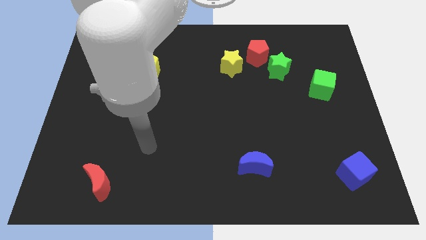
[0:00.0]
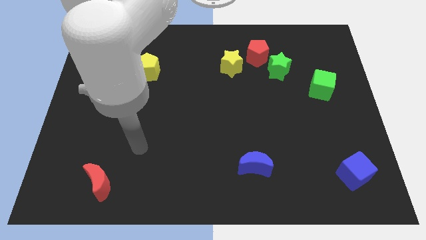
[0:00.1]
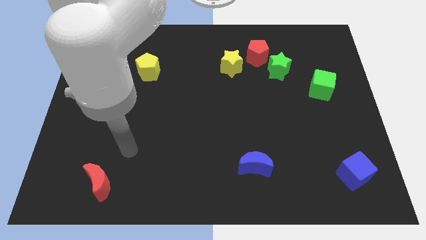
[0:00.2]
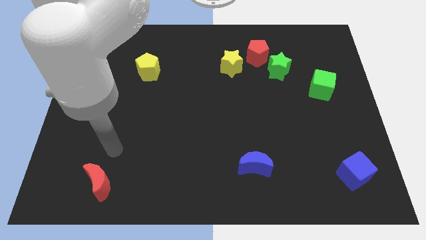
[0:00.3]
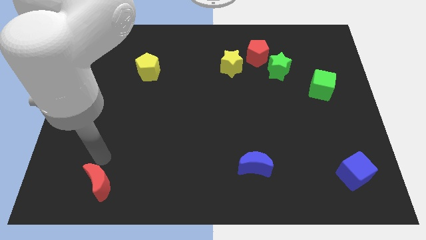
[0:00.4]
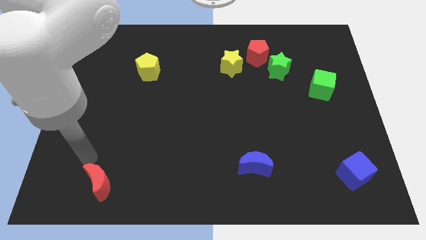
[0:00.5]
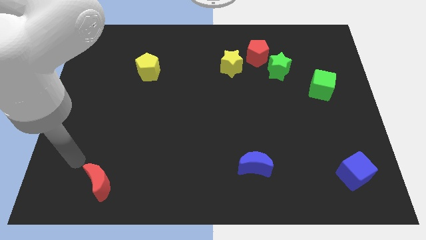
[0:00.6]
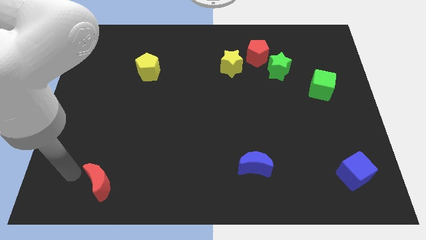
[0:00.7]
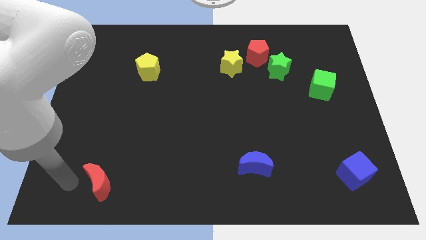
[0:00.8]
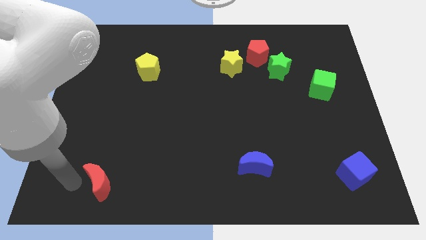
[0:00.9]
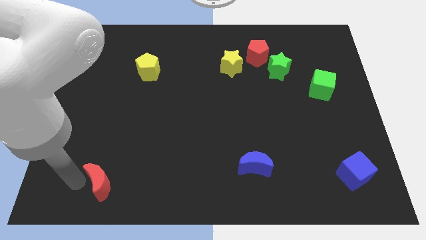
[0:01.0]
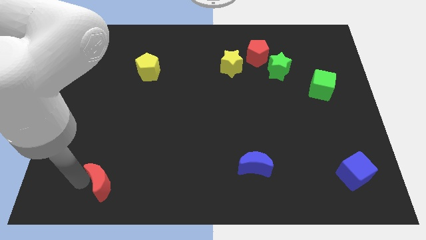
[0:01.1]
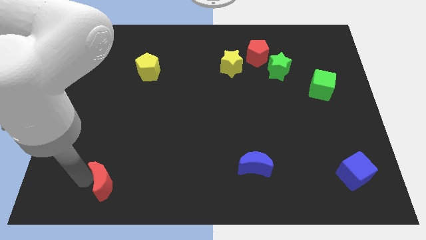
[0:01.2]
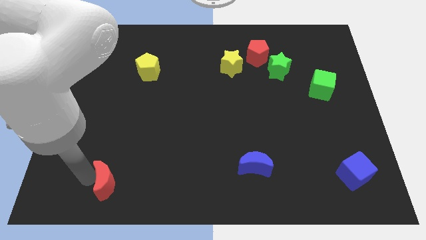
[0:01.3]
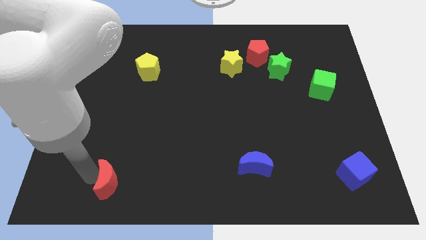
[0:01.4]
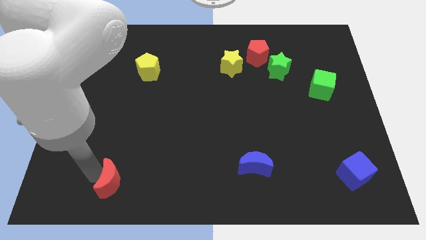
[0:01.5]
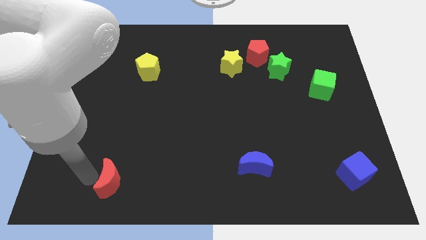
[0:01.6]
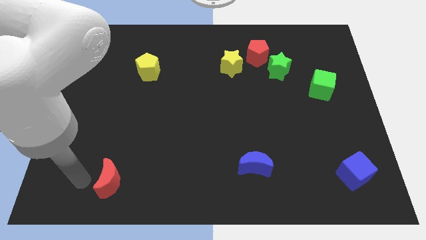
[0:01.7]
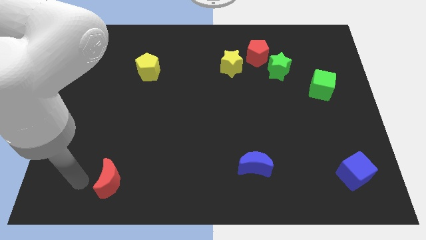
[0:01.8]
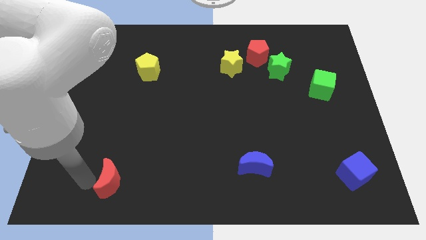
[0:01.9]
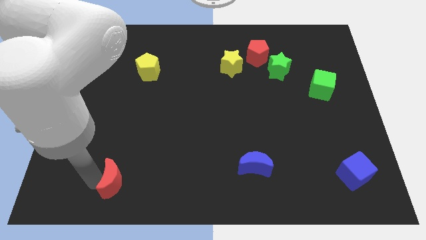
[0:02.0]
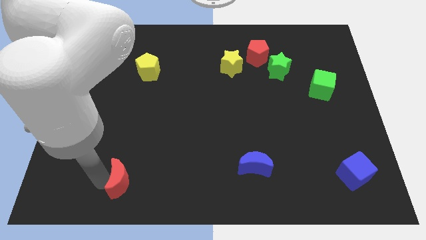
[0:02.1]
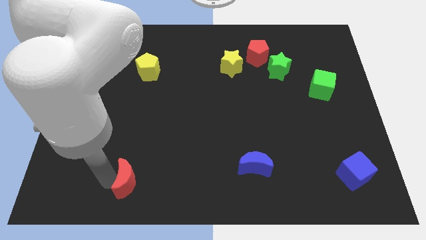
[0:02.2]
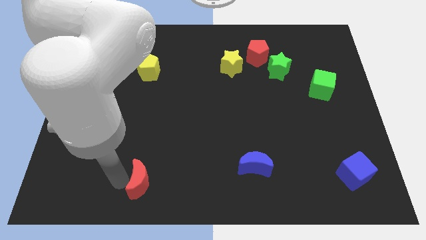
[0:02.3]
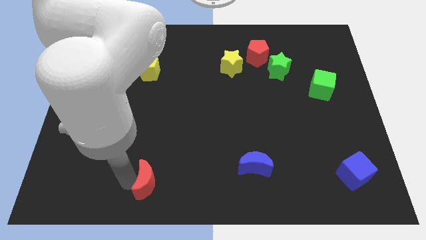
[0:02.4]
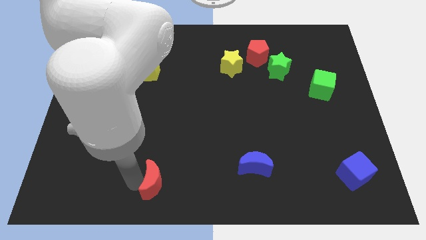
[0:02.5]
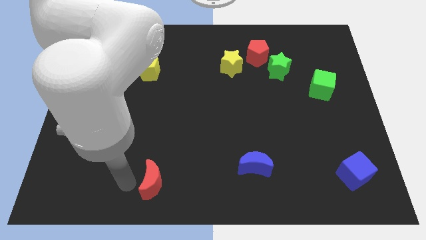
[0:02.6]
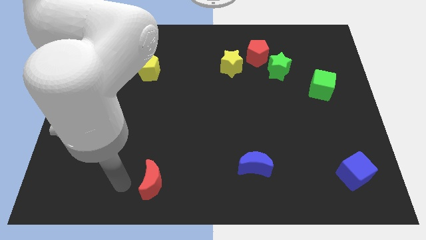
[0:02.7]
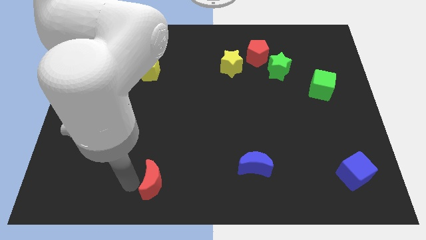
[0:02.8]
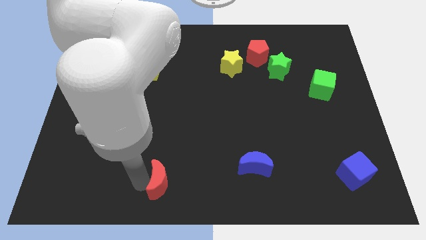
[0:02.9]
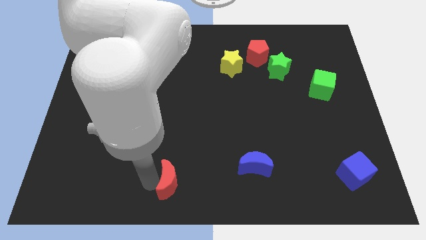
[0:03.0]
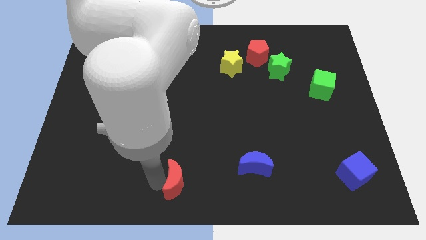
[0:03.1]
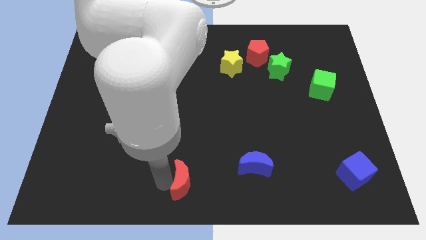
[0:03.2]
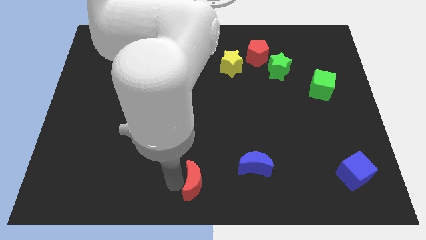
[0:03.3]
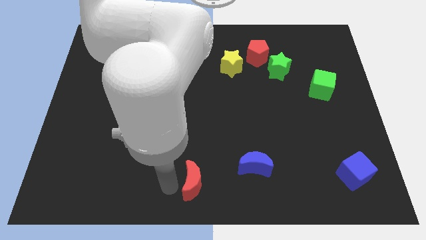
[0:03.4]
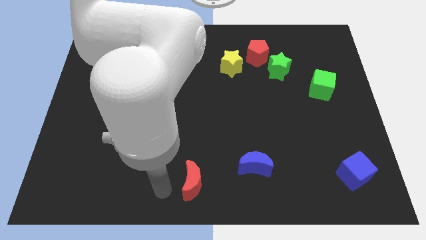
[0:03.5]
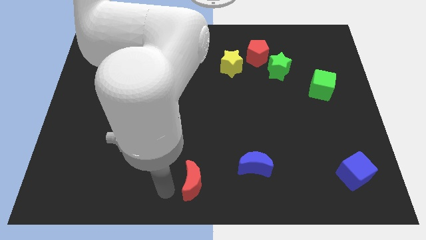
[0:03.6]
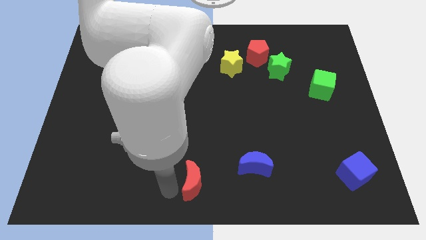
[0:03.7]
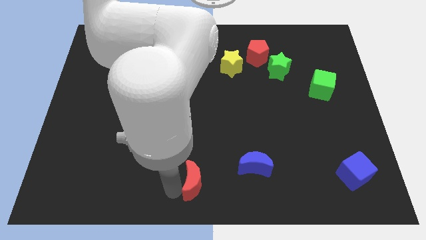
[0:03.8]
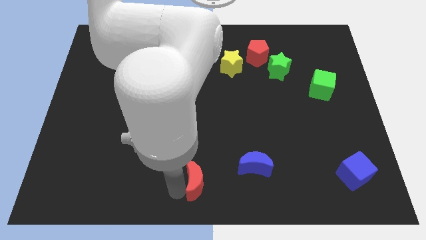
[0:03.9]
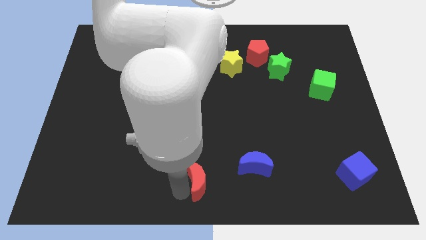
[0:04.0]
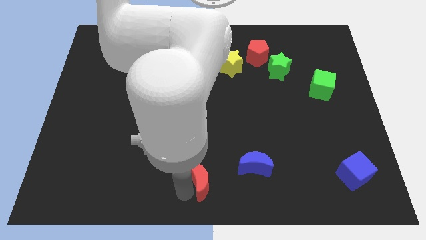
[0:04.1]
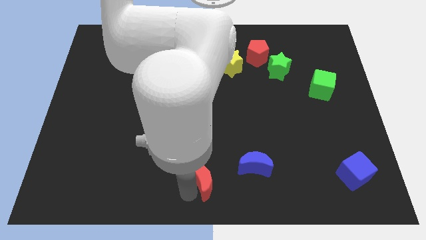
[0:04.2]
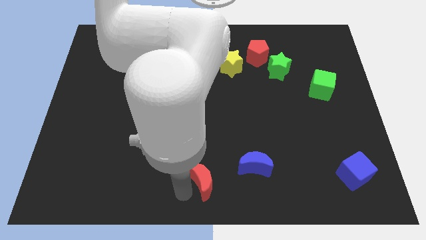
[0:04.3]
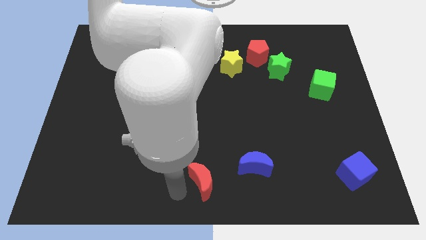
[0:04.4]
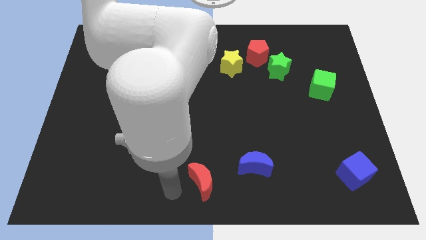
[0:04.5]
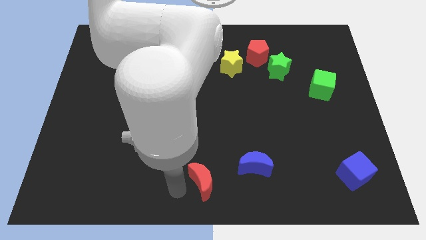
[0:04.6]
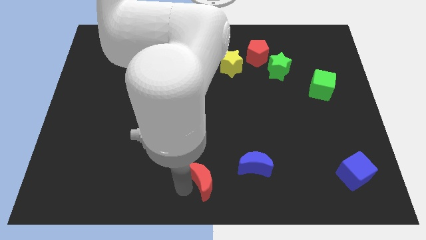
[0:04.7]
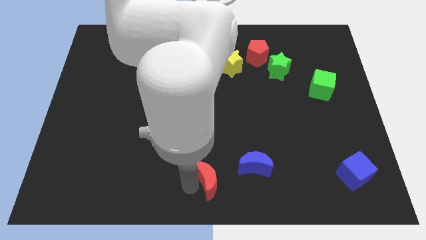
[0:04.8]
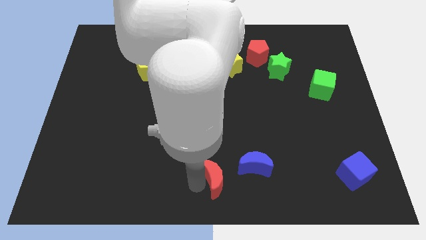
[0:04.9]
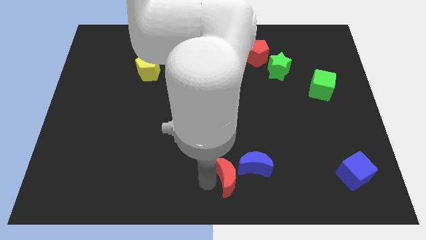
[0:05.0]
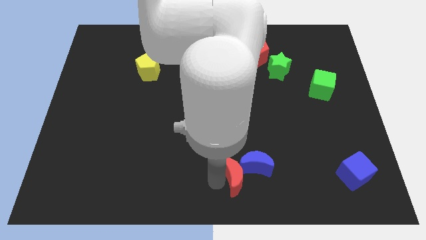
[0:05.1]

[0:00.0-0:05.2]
move the red moon towards the blue moon

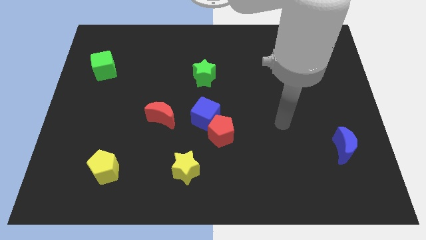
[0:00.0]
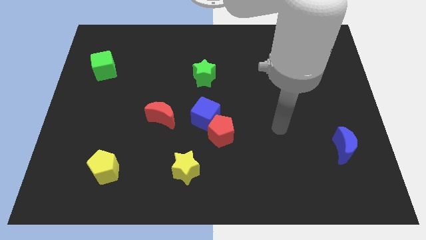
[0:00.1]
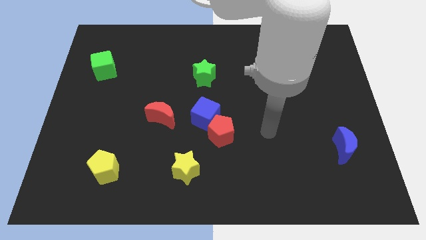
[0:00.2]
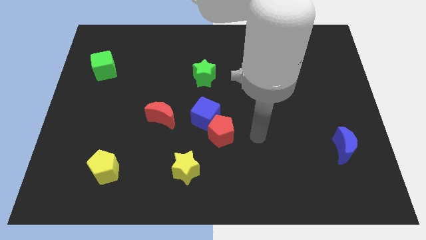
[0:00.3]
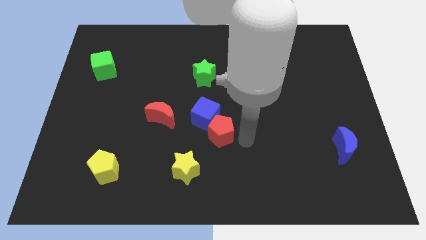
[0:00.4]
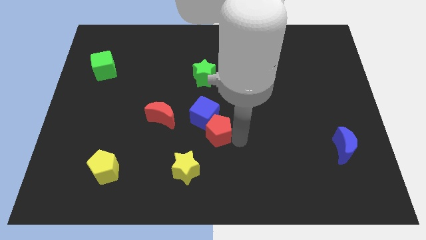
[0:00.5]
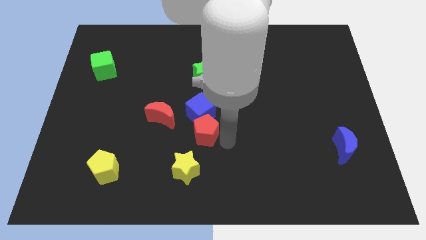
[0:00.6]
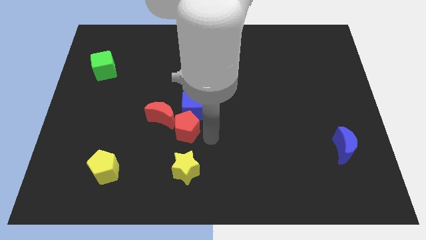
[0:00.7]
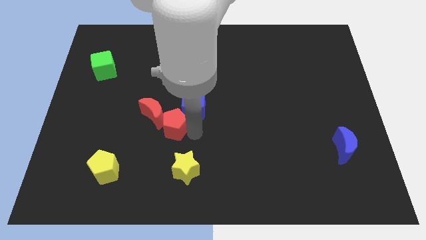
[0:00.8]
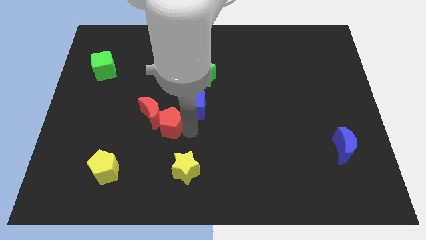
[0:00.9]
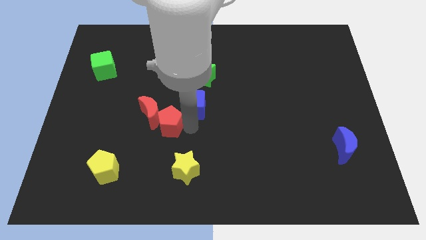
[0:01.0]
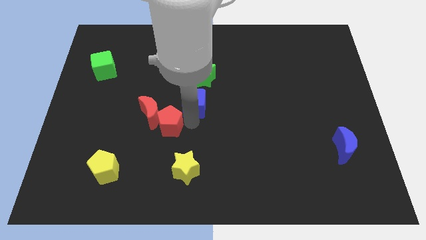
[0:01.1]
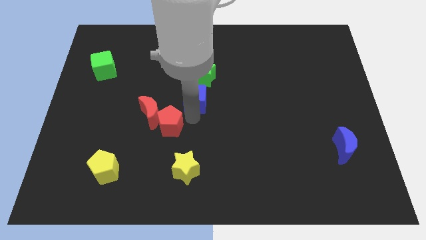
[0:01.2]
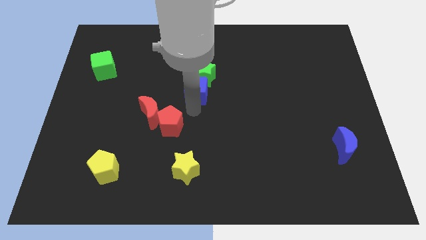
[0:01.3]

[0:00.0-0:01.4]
slide the blue cube towards the green star

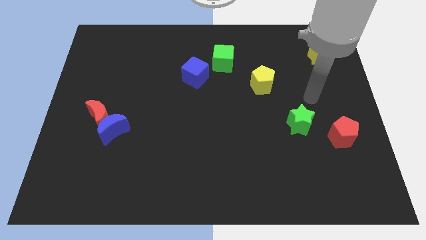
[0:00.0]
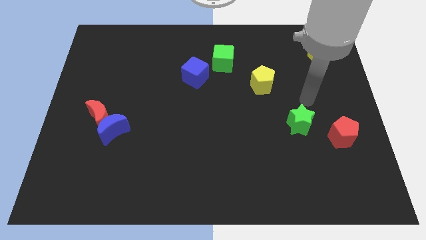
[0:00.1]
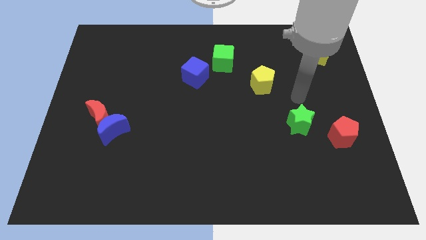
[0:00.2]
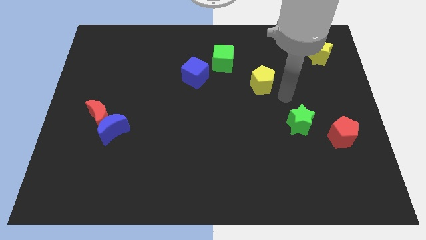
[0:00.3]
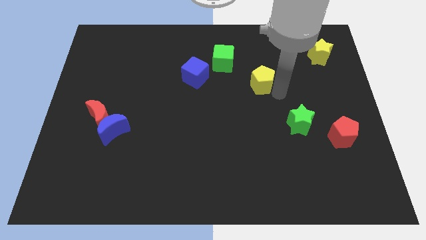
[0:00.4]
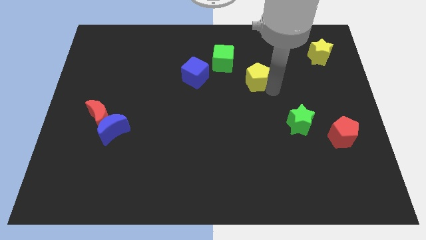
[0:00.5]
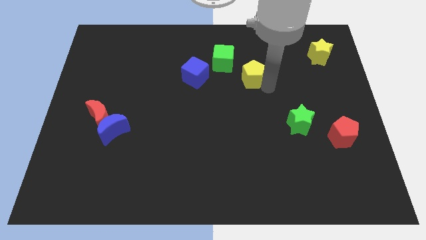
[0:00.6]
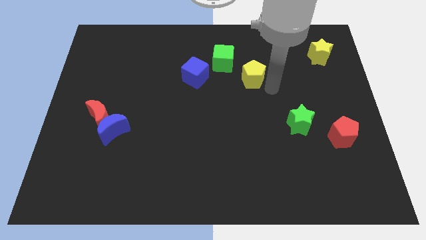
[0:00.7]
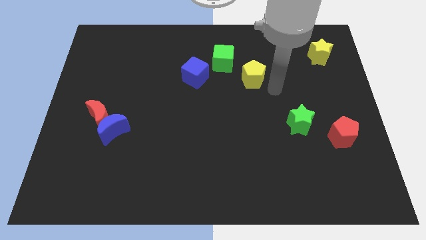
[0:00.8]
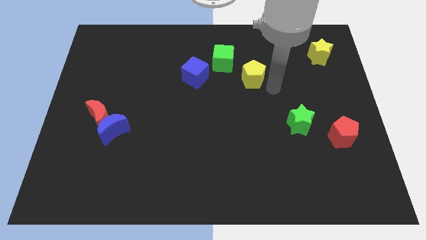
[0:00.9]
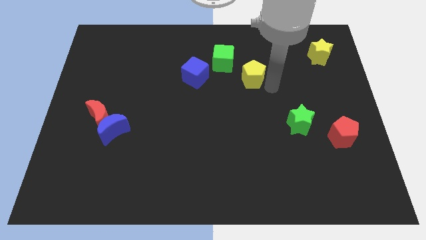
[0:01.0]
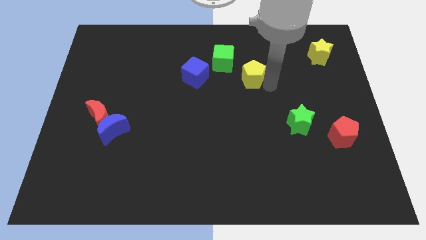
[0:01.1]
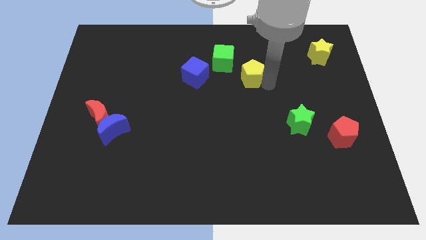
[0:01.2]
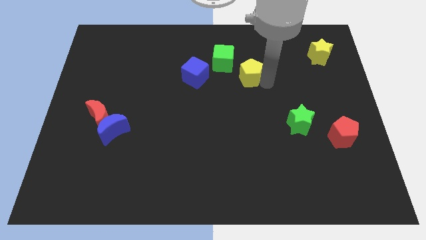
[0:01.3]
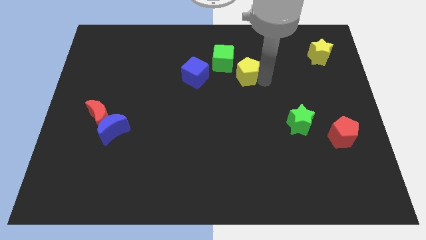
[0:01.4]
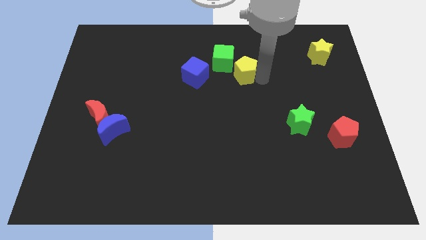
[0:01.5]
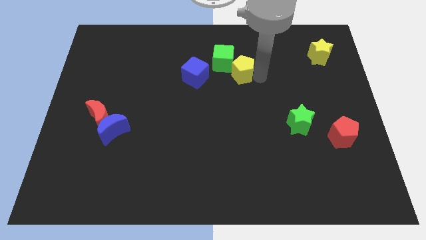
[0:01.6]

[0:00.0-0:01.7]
put the yellow pentagon close to the green cube
